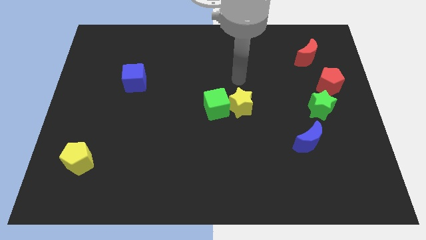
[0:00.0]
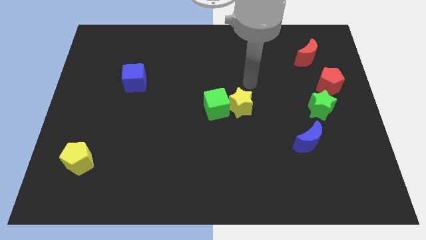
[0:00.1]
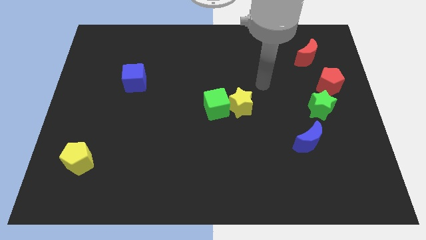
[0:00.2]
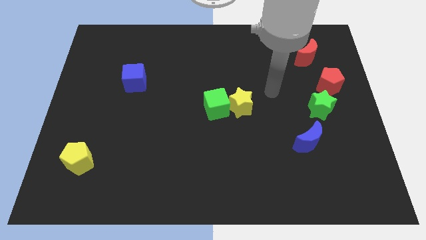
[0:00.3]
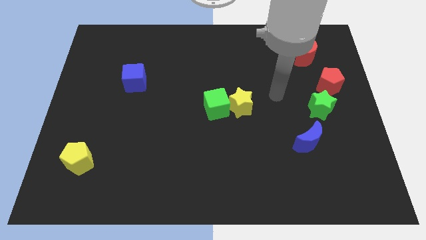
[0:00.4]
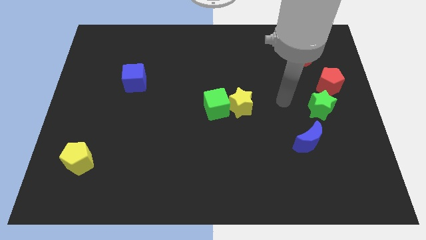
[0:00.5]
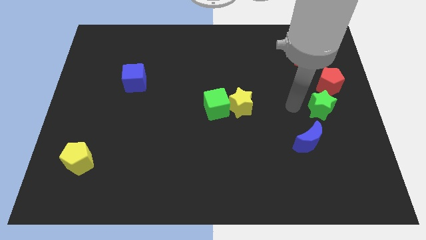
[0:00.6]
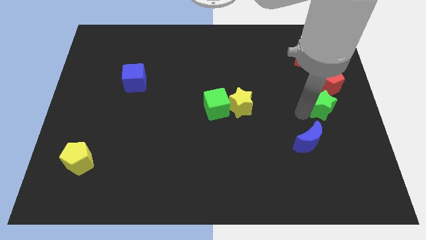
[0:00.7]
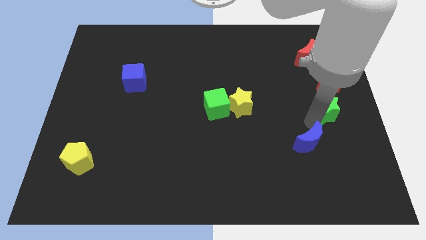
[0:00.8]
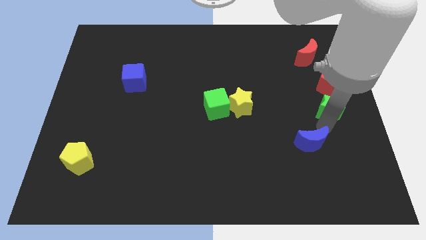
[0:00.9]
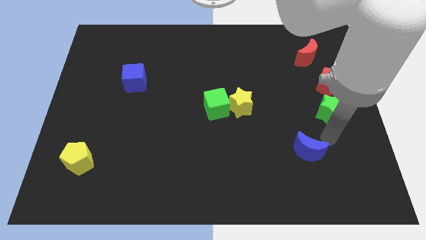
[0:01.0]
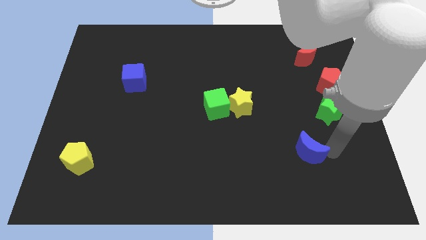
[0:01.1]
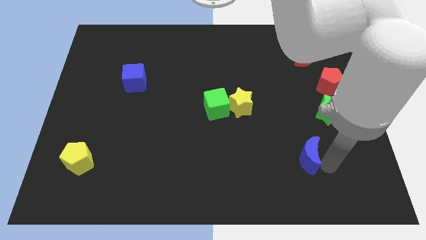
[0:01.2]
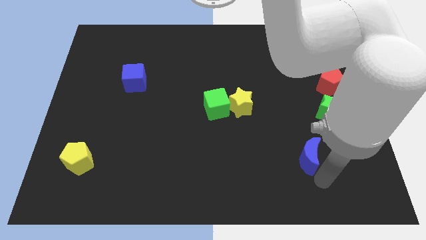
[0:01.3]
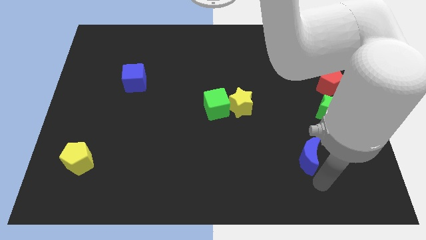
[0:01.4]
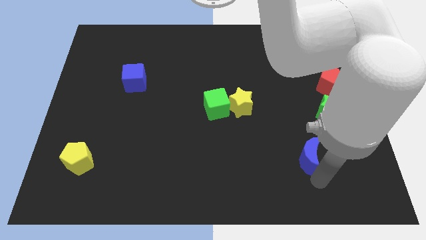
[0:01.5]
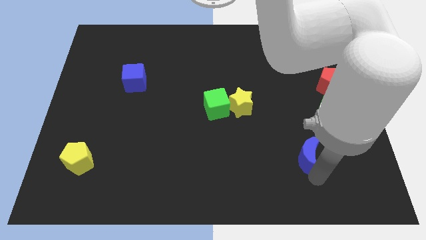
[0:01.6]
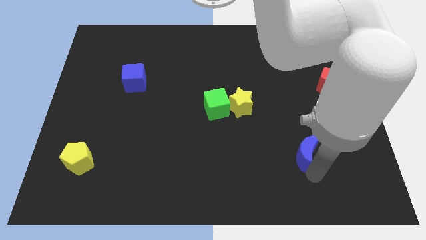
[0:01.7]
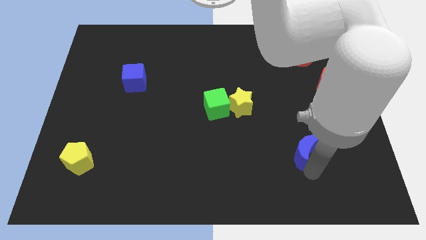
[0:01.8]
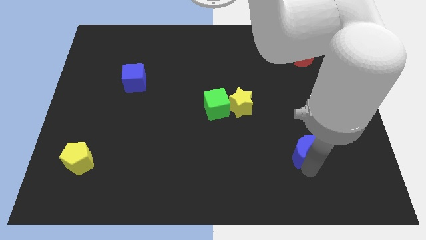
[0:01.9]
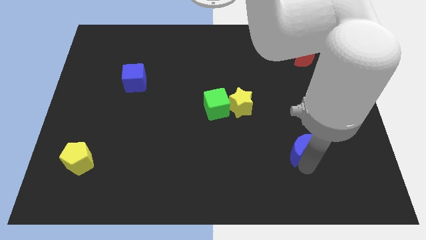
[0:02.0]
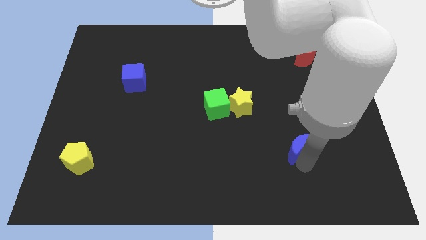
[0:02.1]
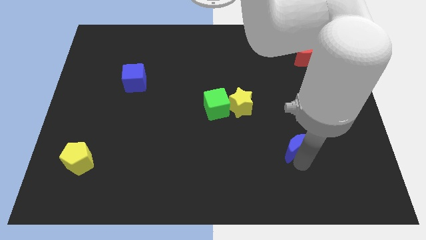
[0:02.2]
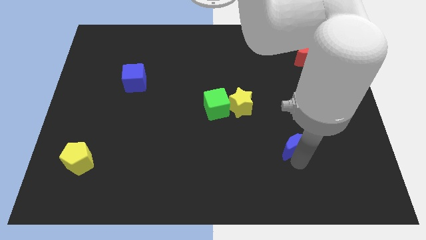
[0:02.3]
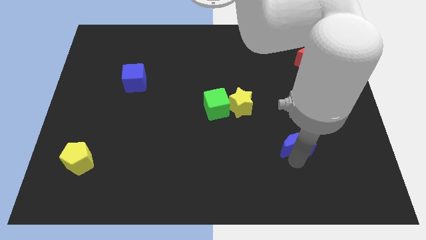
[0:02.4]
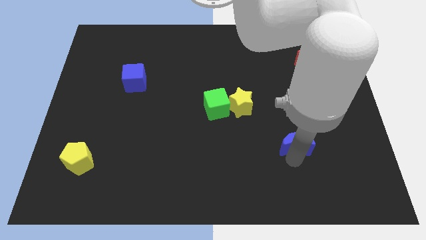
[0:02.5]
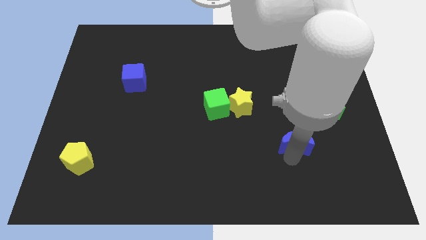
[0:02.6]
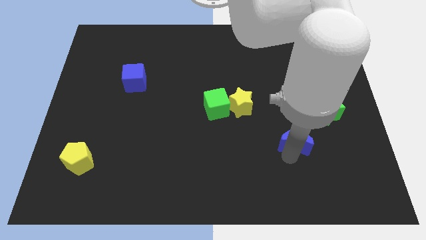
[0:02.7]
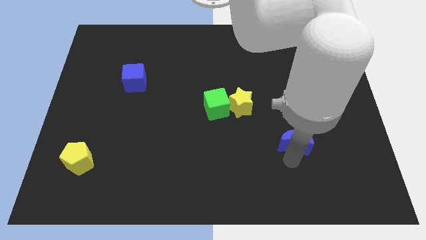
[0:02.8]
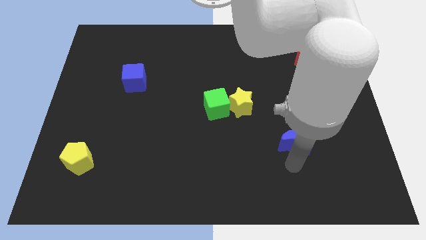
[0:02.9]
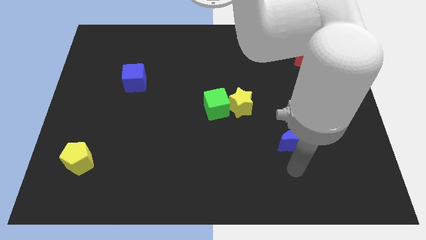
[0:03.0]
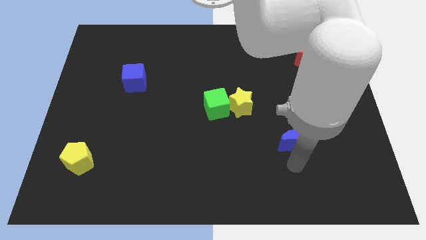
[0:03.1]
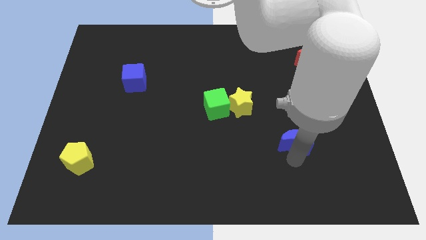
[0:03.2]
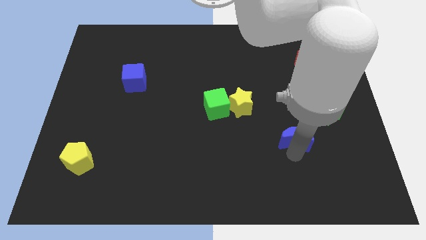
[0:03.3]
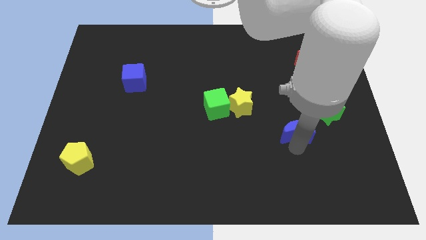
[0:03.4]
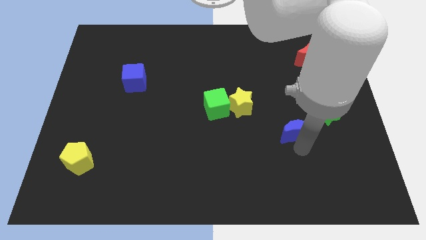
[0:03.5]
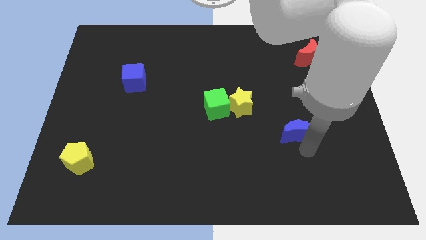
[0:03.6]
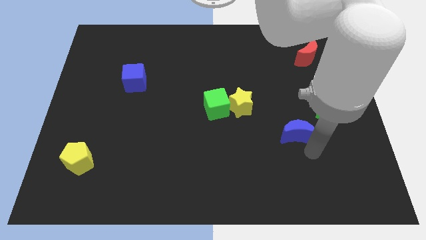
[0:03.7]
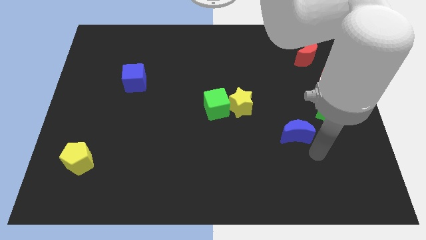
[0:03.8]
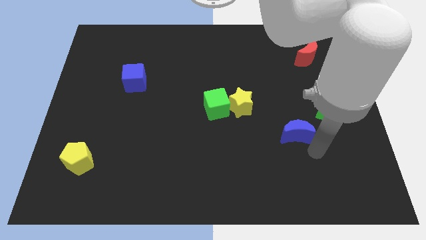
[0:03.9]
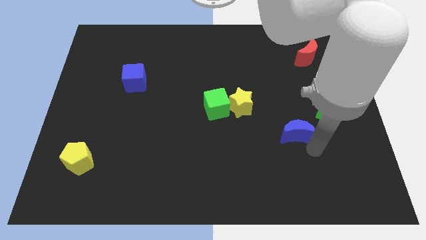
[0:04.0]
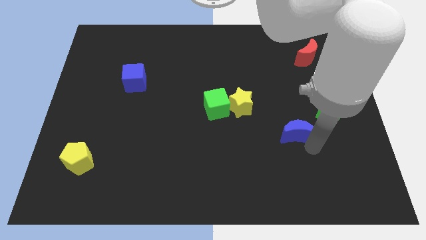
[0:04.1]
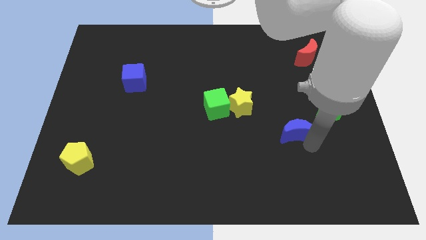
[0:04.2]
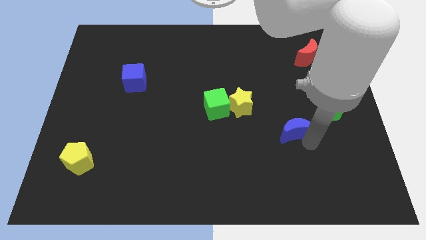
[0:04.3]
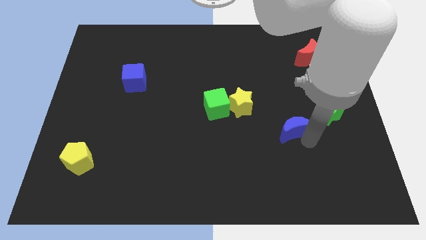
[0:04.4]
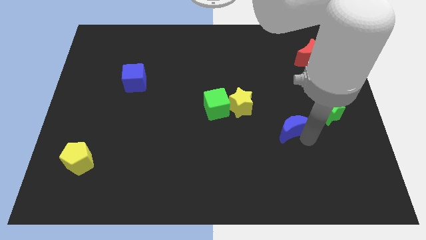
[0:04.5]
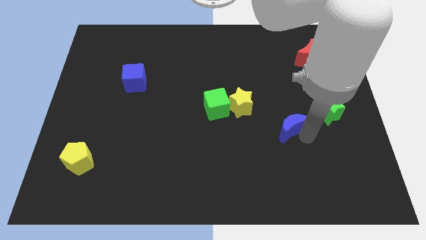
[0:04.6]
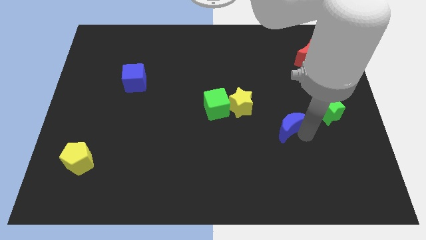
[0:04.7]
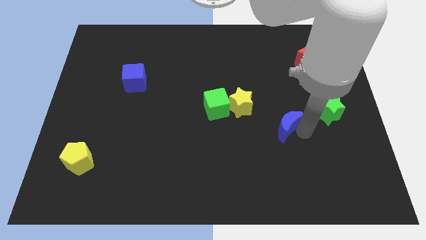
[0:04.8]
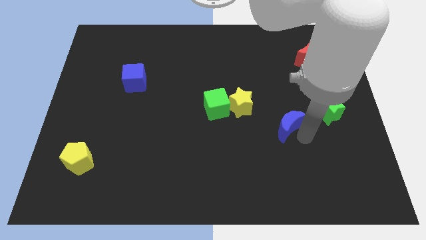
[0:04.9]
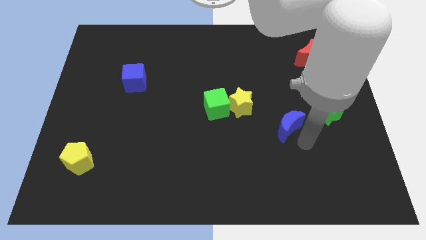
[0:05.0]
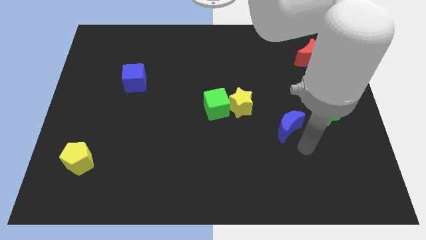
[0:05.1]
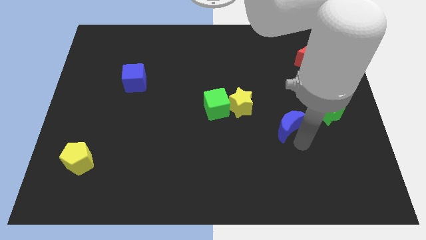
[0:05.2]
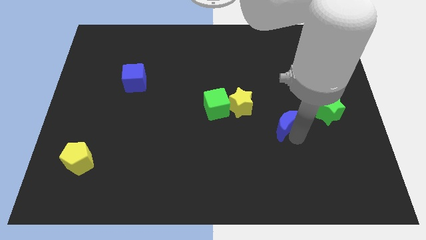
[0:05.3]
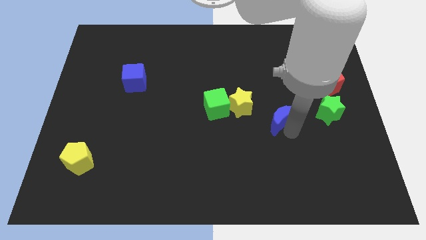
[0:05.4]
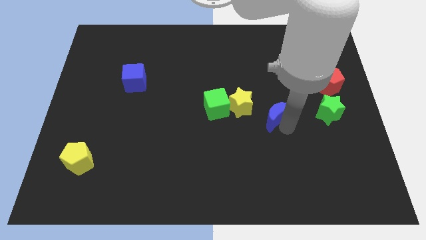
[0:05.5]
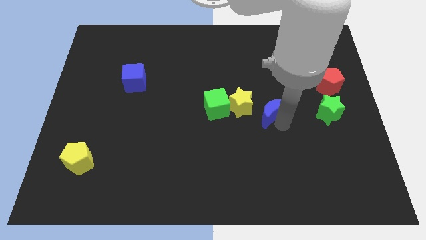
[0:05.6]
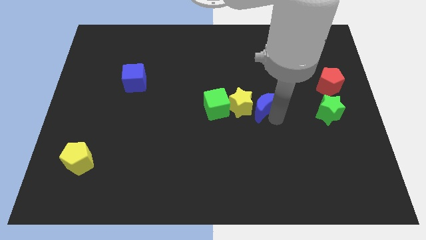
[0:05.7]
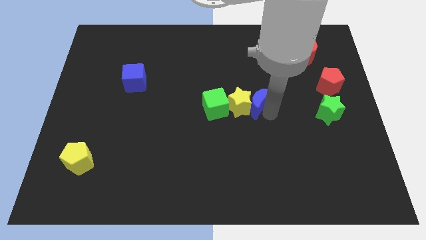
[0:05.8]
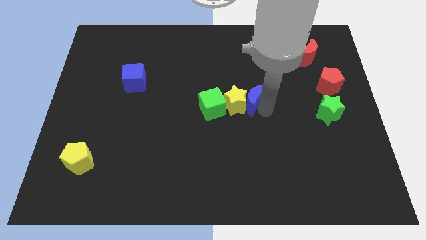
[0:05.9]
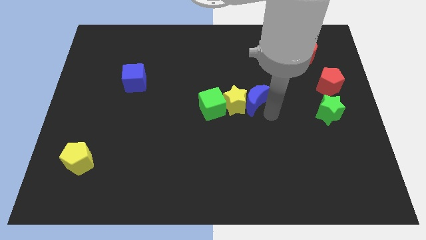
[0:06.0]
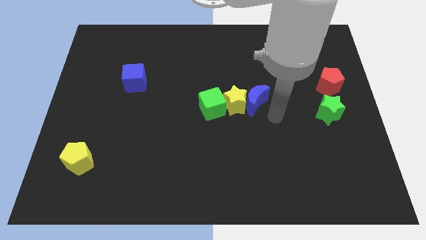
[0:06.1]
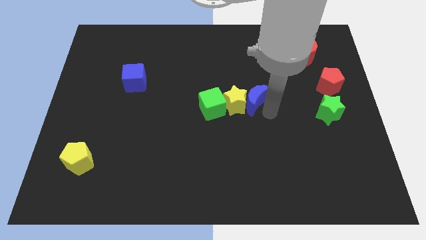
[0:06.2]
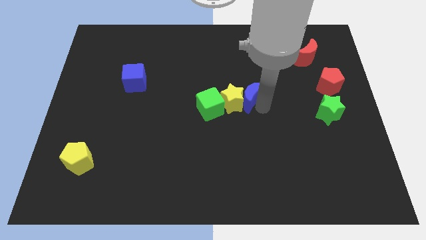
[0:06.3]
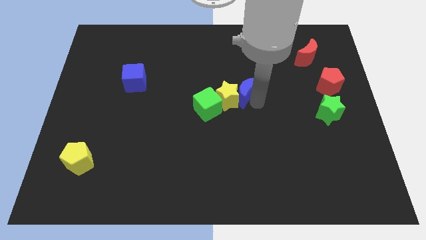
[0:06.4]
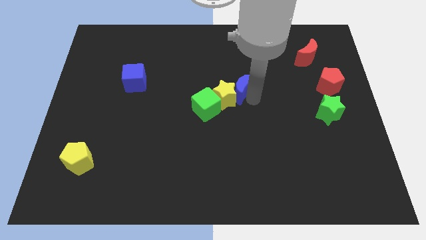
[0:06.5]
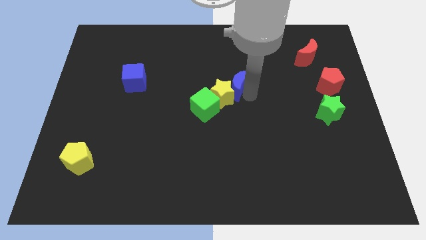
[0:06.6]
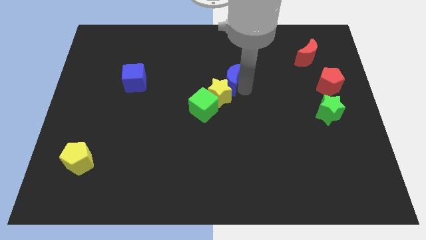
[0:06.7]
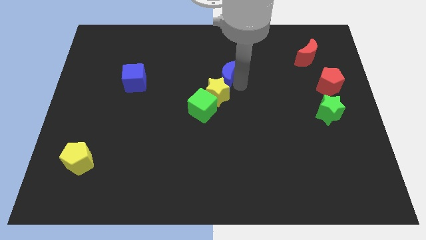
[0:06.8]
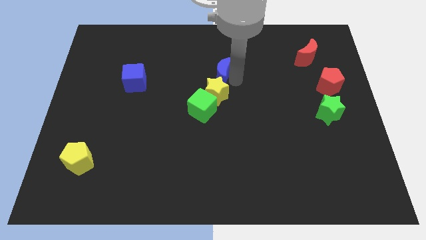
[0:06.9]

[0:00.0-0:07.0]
put the blue moon to the top side of the green cube
